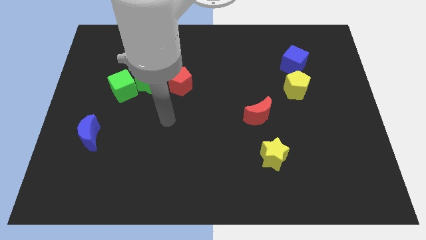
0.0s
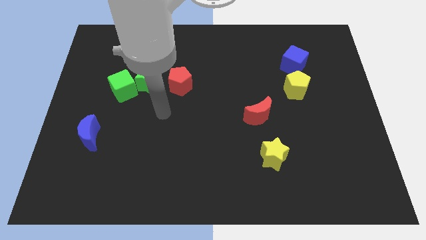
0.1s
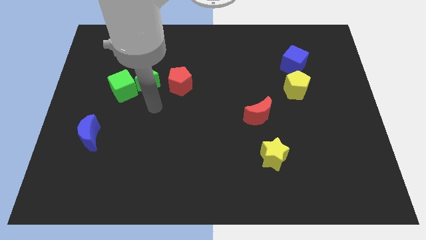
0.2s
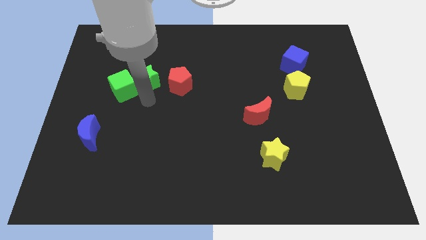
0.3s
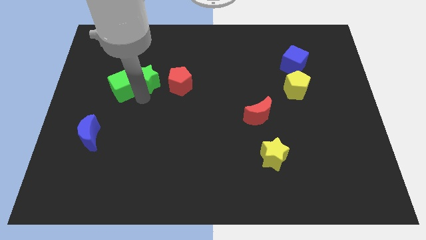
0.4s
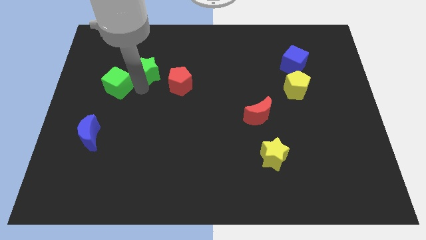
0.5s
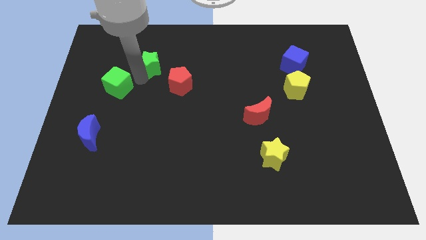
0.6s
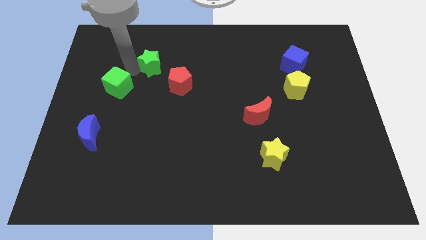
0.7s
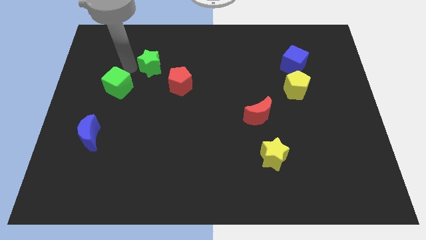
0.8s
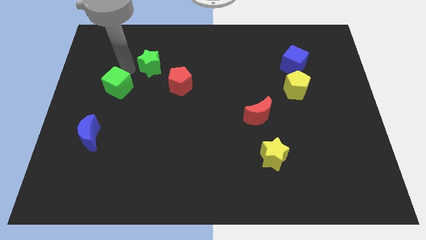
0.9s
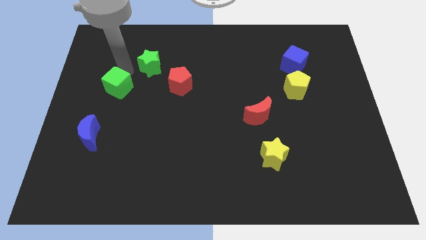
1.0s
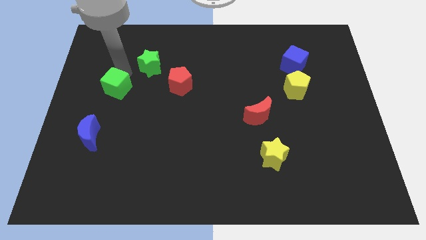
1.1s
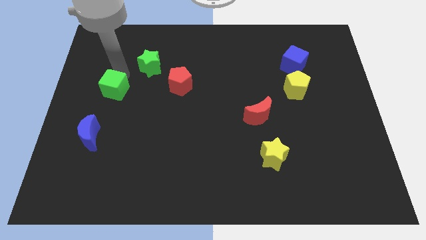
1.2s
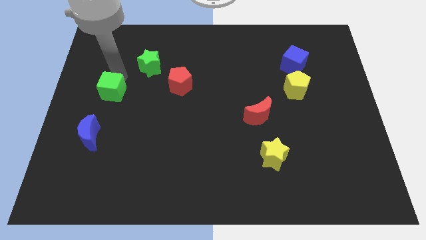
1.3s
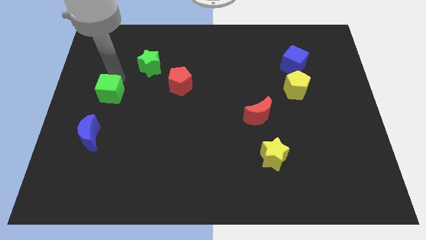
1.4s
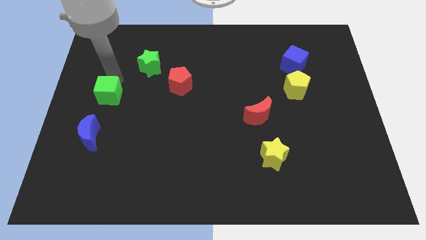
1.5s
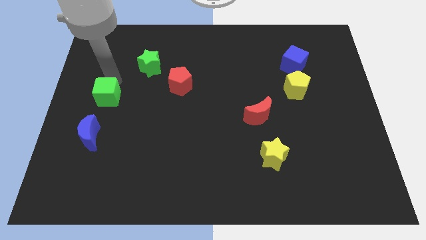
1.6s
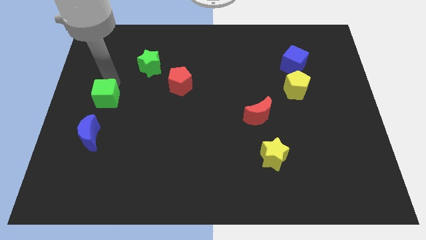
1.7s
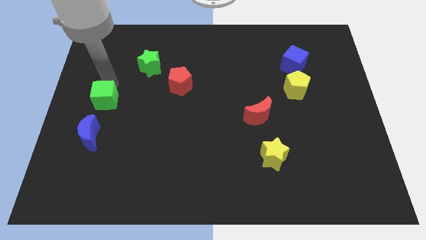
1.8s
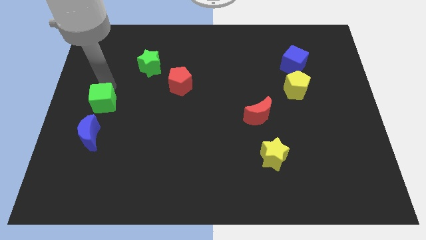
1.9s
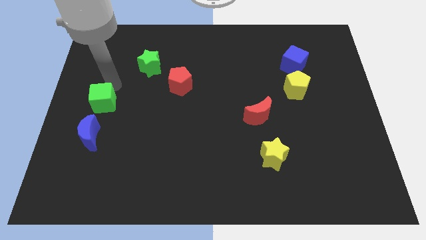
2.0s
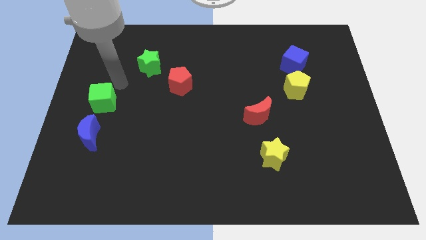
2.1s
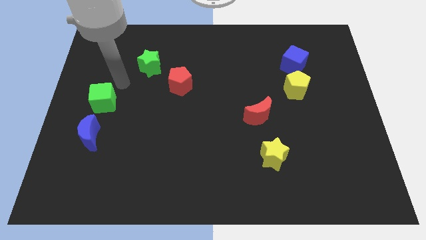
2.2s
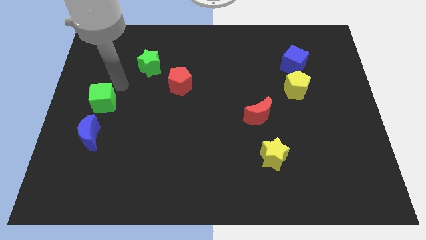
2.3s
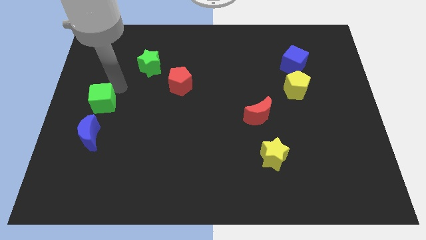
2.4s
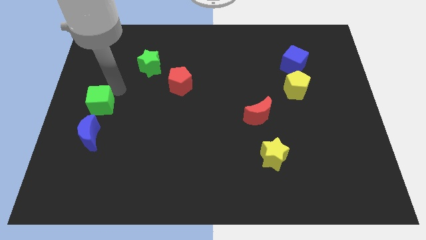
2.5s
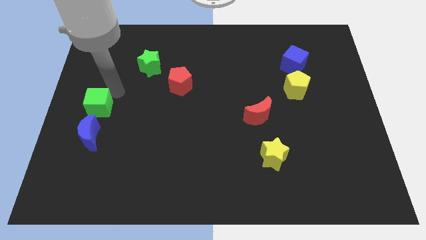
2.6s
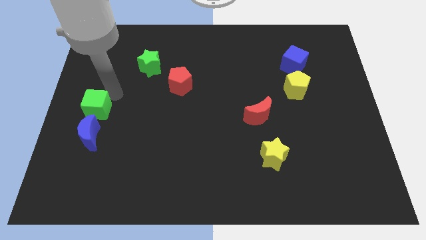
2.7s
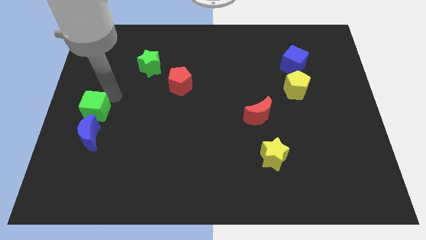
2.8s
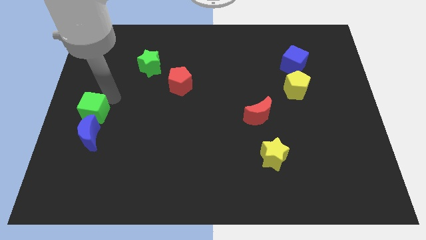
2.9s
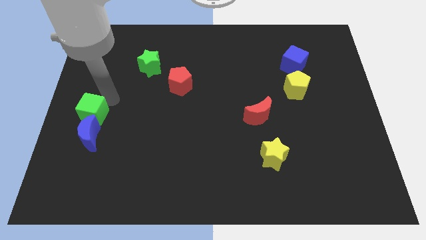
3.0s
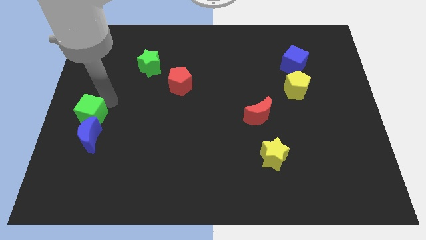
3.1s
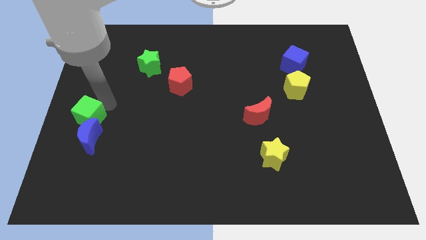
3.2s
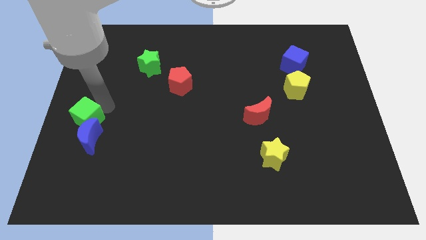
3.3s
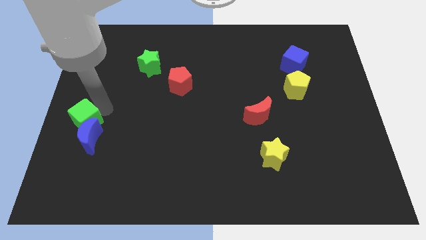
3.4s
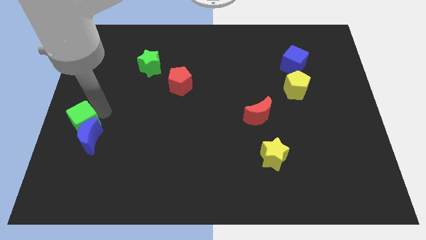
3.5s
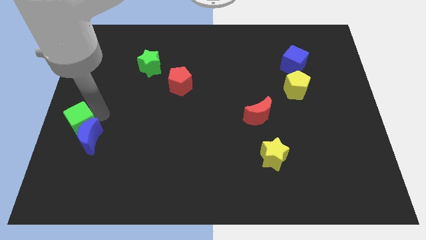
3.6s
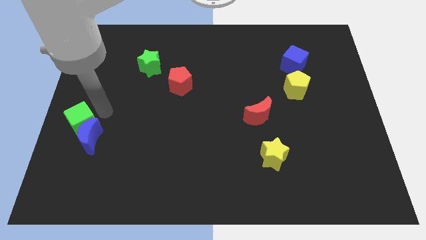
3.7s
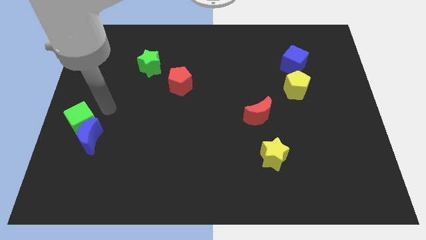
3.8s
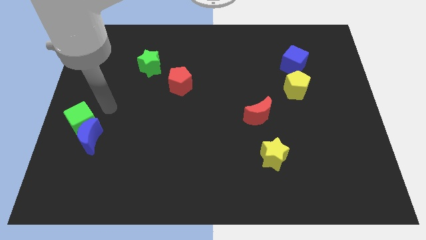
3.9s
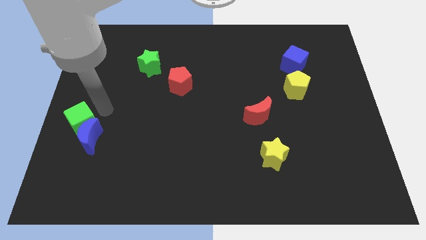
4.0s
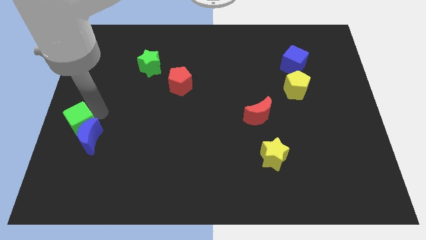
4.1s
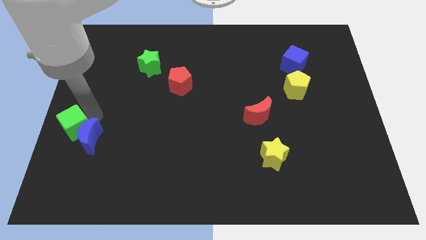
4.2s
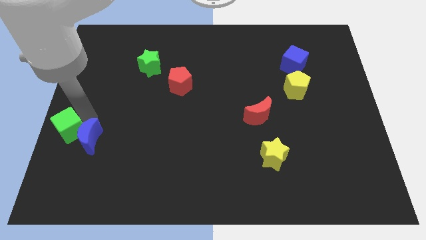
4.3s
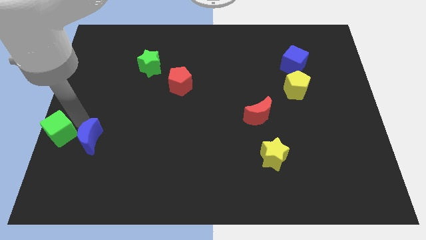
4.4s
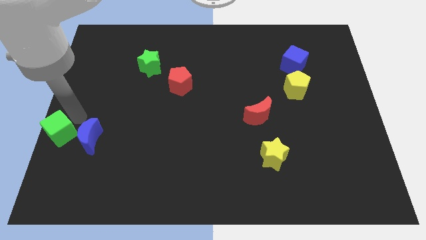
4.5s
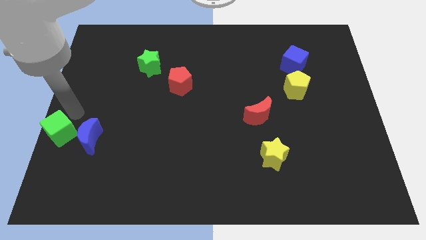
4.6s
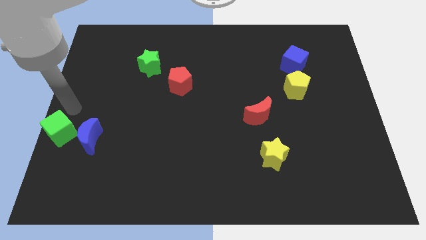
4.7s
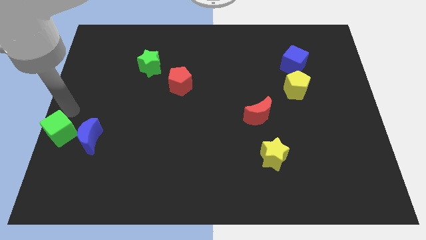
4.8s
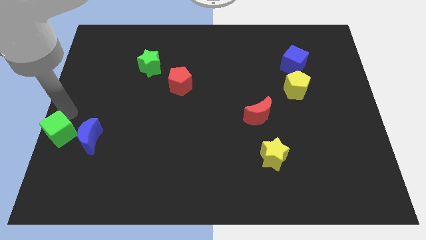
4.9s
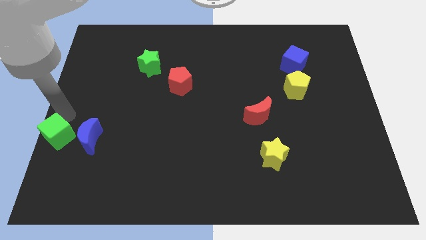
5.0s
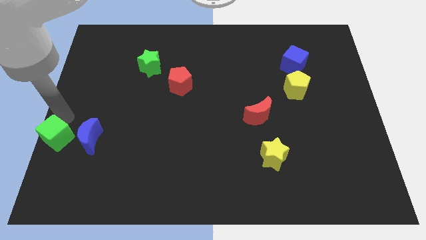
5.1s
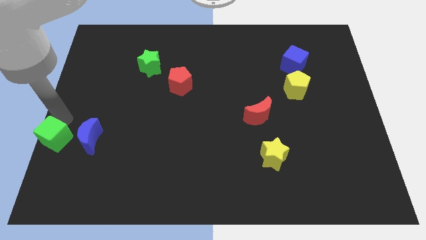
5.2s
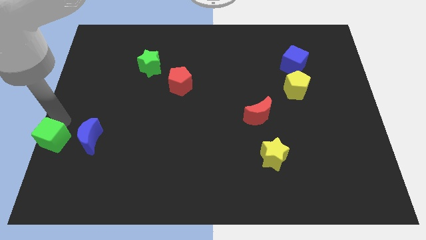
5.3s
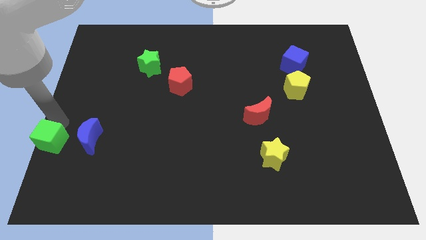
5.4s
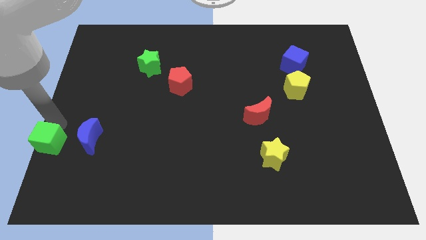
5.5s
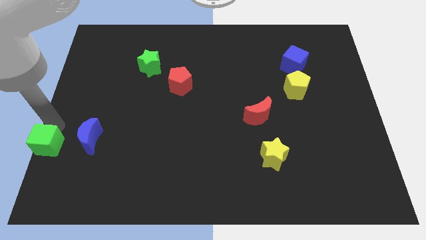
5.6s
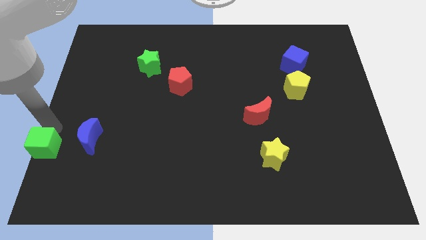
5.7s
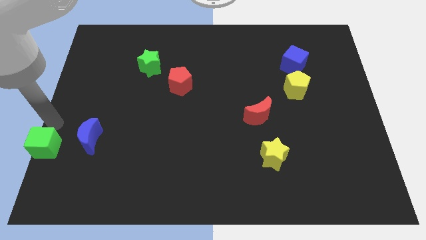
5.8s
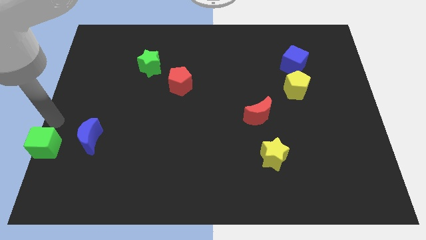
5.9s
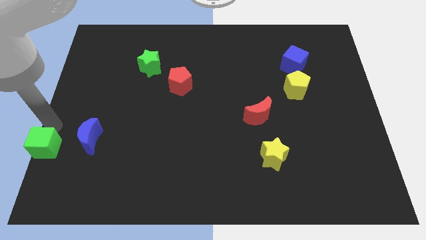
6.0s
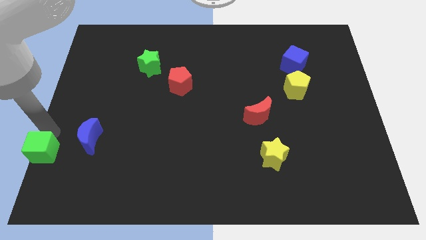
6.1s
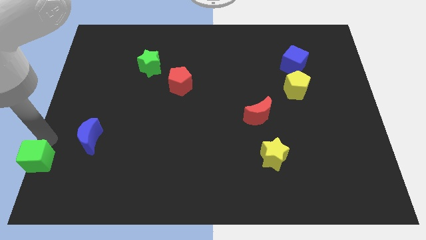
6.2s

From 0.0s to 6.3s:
put the green cube to the lower left corner
